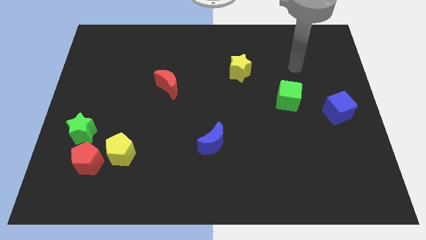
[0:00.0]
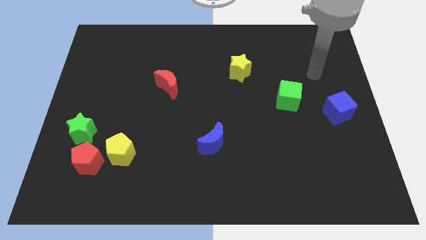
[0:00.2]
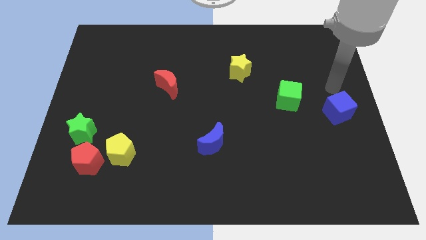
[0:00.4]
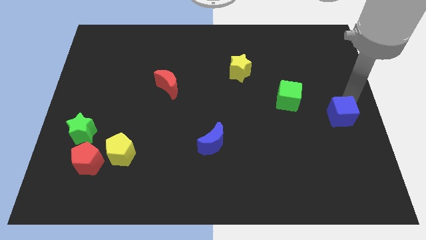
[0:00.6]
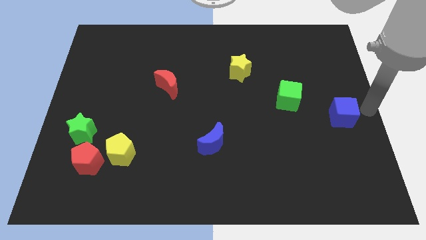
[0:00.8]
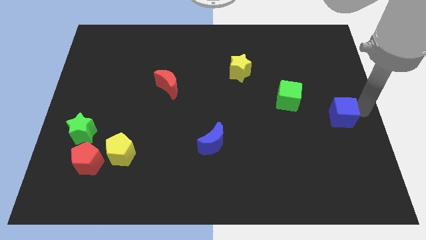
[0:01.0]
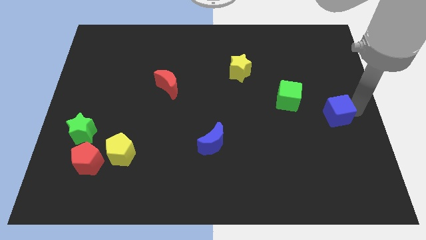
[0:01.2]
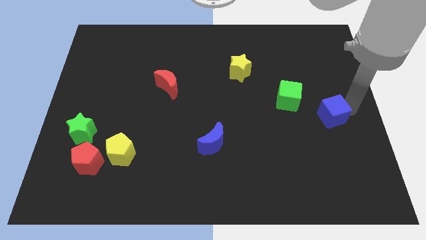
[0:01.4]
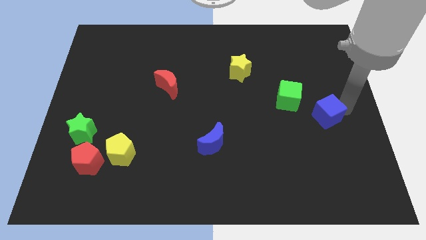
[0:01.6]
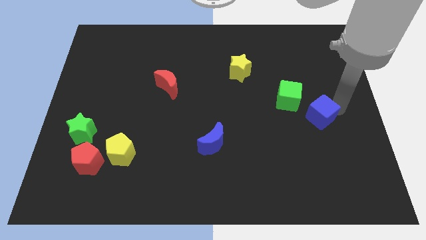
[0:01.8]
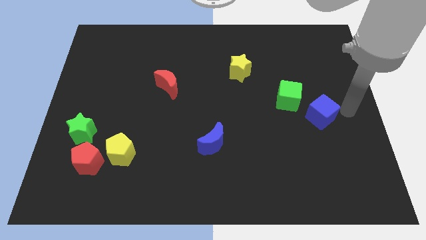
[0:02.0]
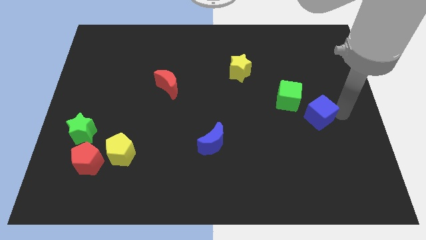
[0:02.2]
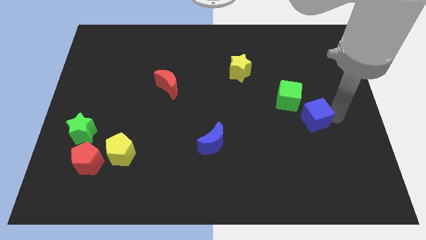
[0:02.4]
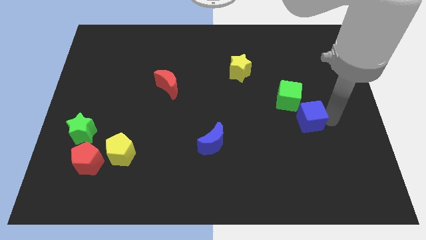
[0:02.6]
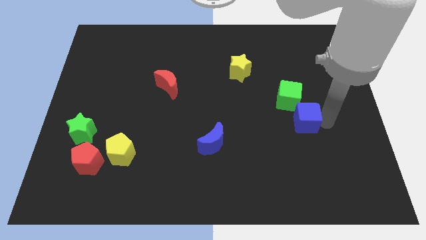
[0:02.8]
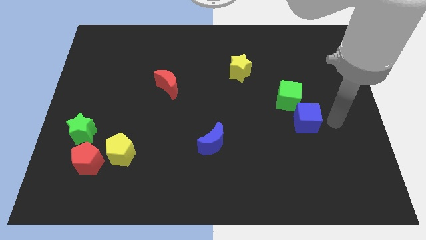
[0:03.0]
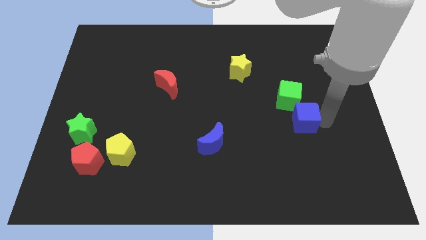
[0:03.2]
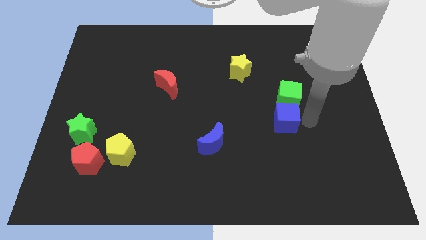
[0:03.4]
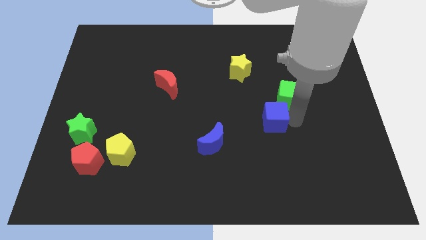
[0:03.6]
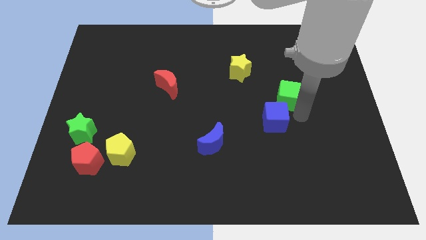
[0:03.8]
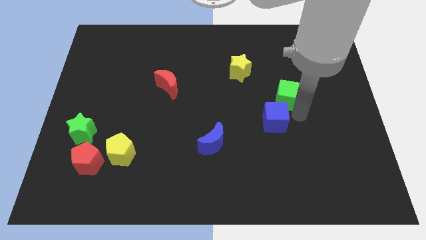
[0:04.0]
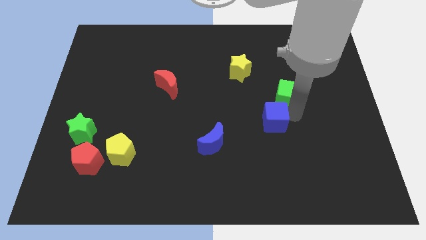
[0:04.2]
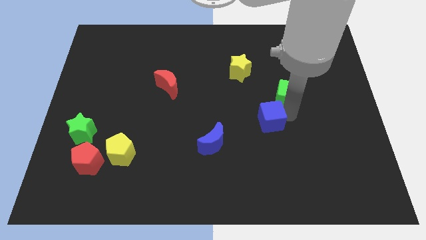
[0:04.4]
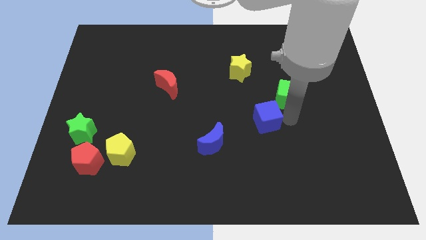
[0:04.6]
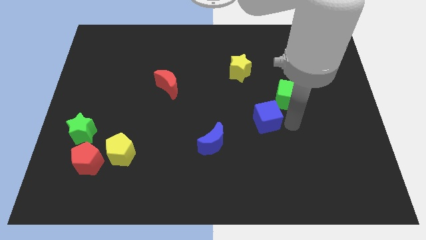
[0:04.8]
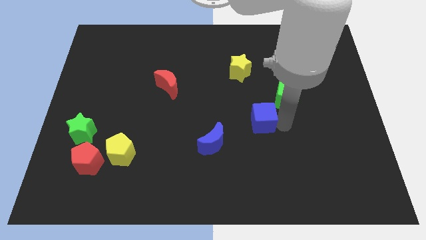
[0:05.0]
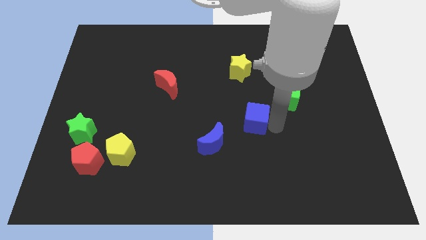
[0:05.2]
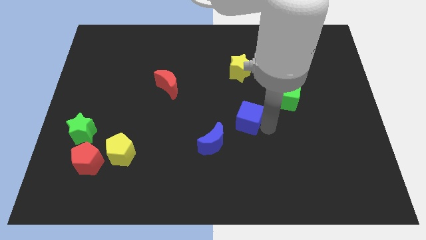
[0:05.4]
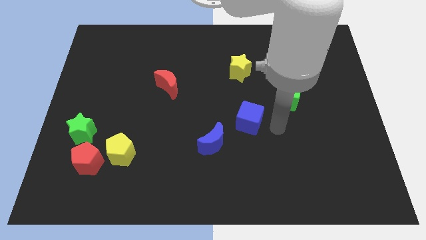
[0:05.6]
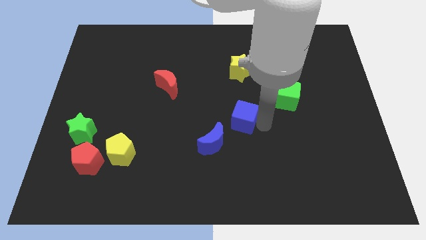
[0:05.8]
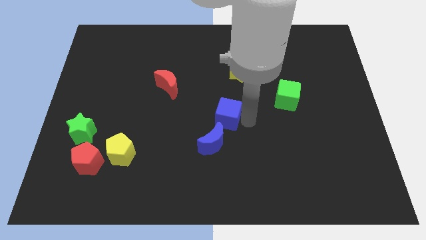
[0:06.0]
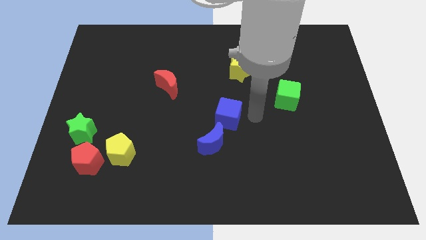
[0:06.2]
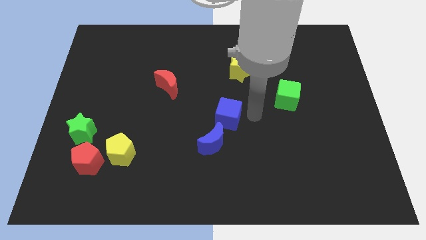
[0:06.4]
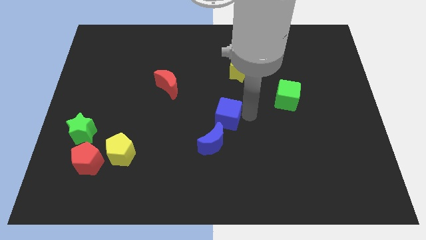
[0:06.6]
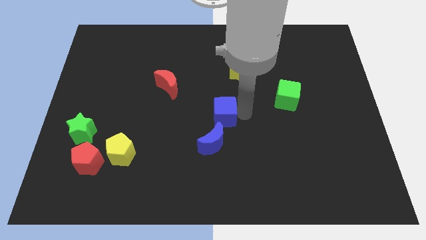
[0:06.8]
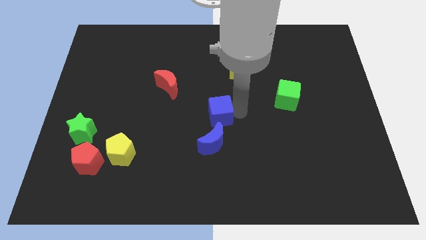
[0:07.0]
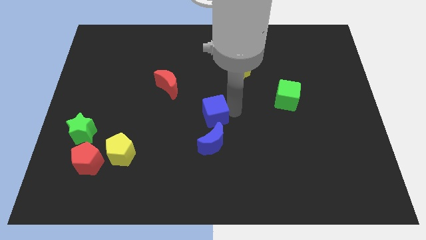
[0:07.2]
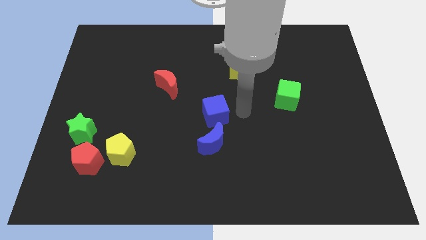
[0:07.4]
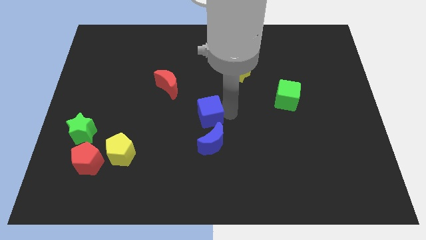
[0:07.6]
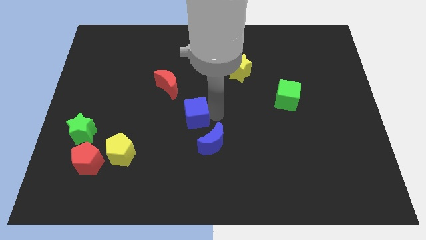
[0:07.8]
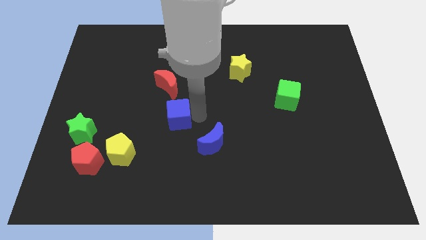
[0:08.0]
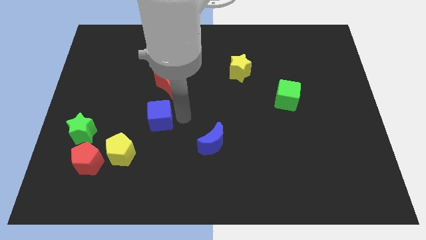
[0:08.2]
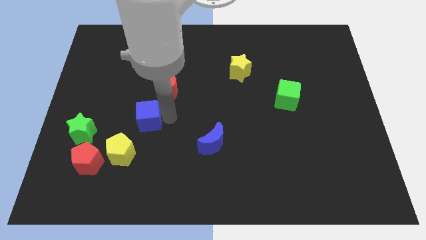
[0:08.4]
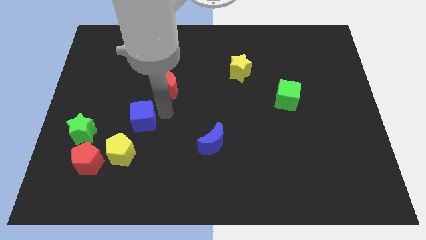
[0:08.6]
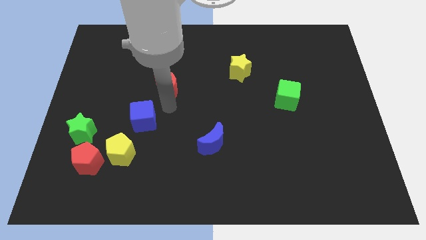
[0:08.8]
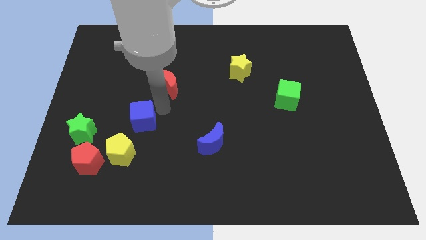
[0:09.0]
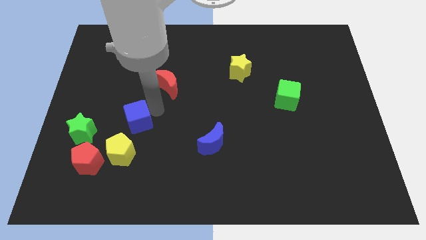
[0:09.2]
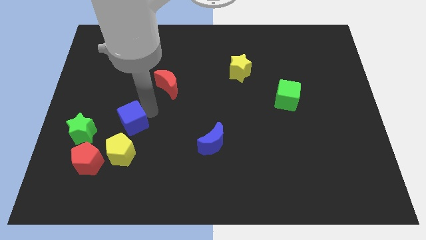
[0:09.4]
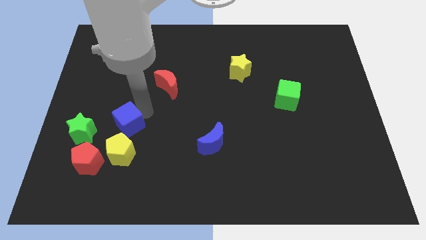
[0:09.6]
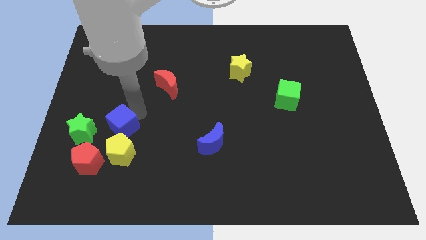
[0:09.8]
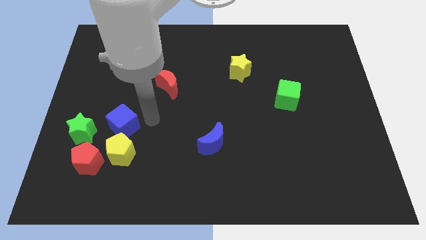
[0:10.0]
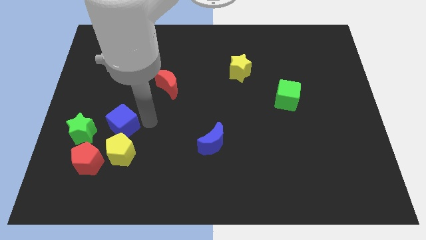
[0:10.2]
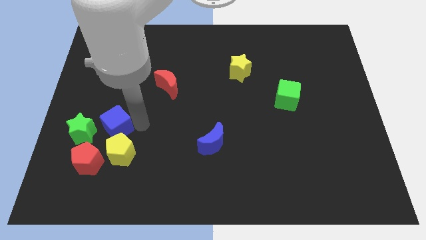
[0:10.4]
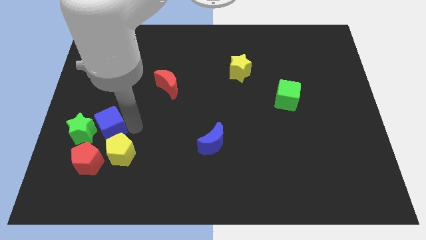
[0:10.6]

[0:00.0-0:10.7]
slide the blue cube close to the green star

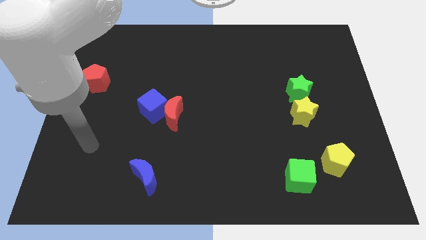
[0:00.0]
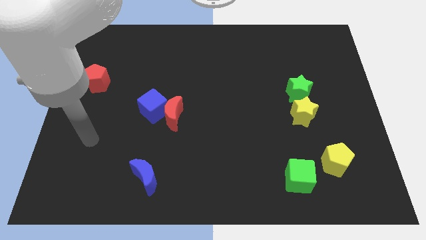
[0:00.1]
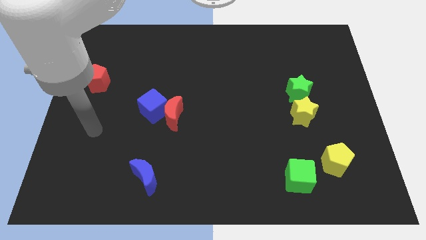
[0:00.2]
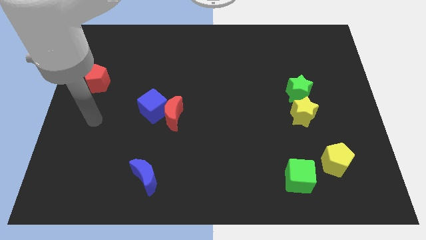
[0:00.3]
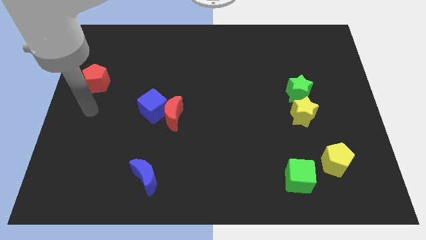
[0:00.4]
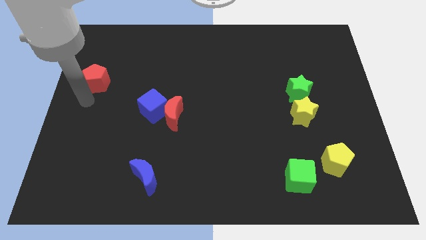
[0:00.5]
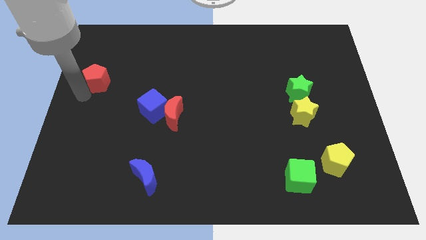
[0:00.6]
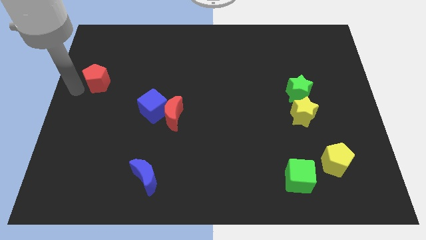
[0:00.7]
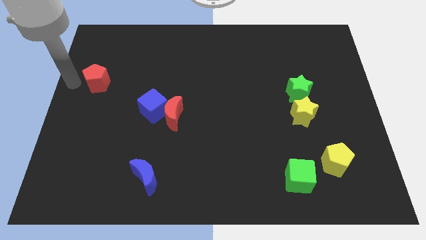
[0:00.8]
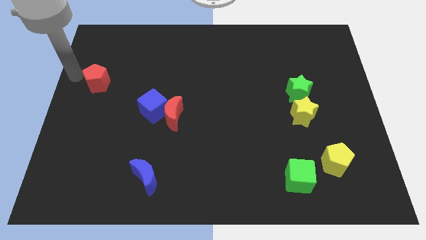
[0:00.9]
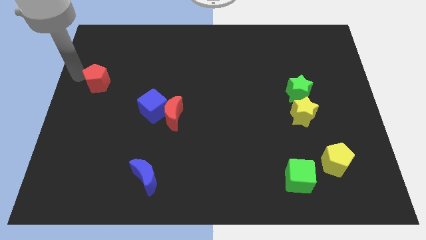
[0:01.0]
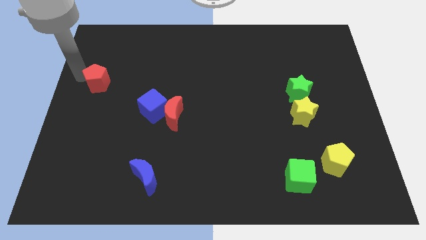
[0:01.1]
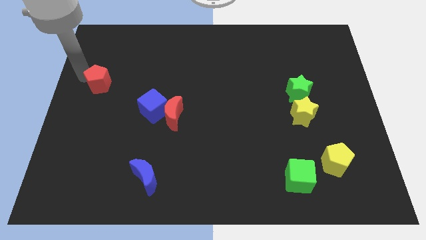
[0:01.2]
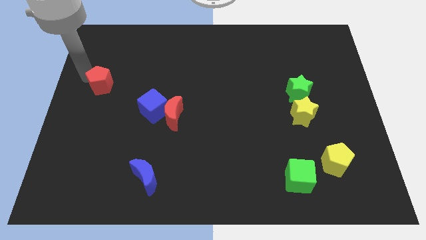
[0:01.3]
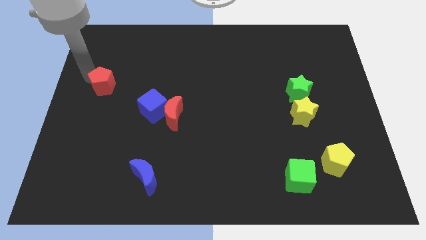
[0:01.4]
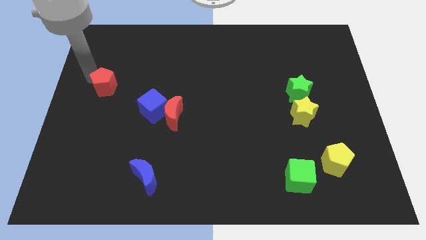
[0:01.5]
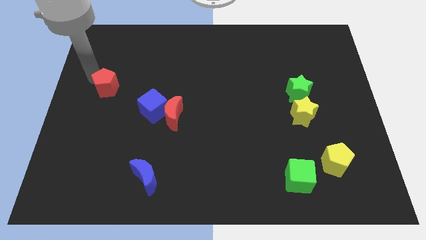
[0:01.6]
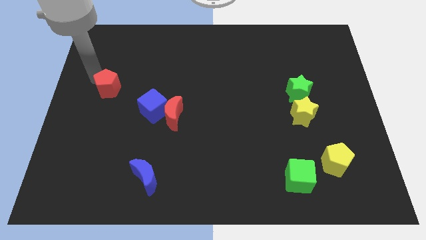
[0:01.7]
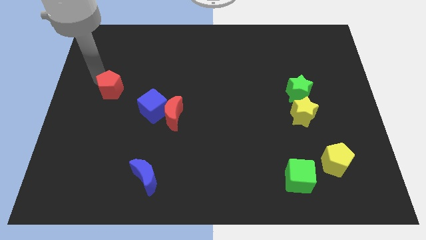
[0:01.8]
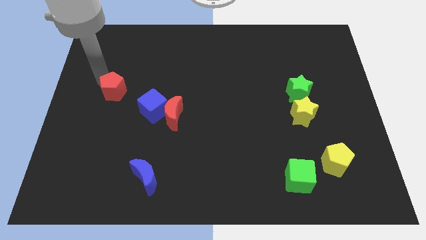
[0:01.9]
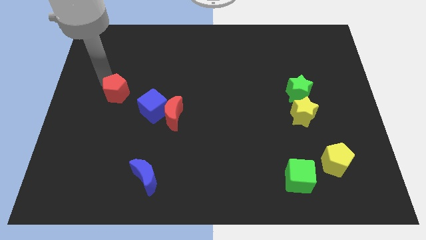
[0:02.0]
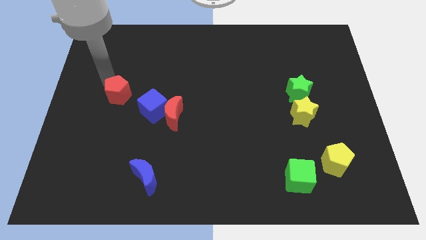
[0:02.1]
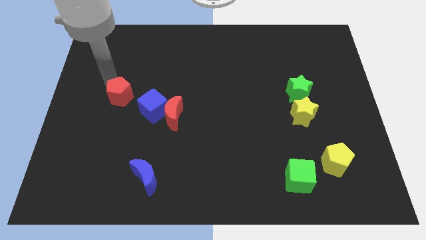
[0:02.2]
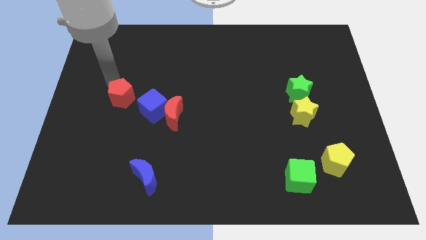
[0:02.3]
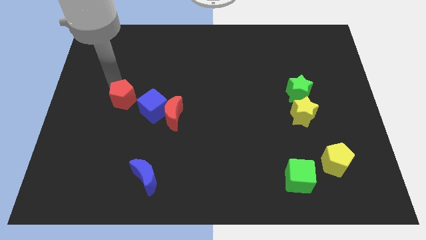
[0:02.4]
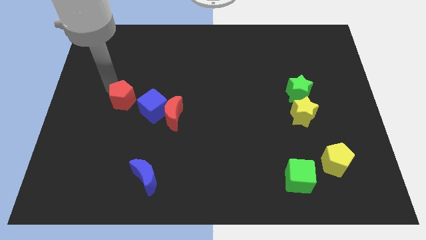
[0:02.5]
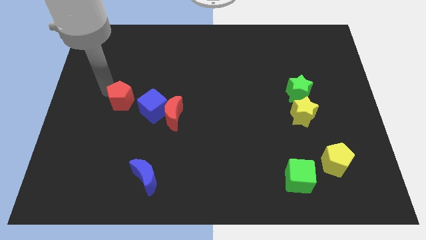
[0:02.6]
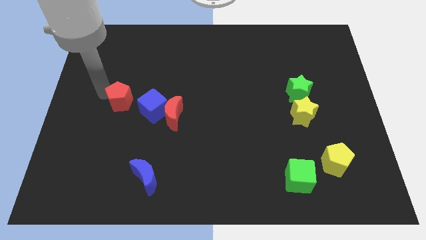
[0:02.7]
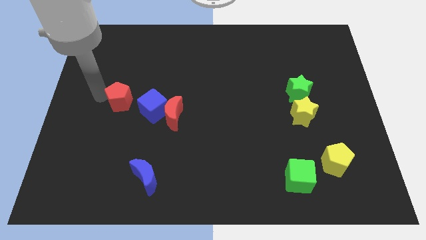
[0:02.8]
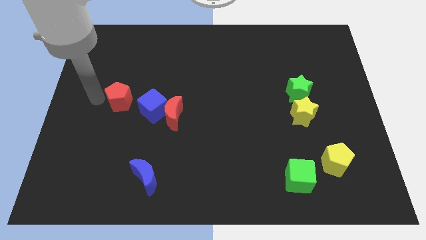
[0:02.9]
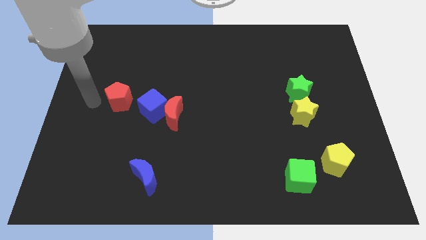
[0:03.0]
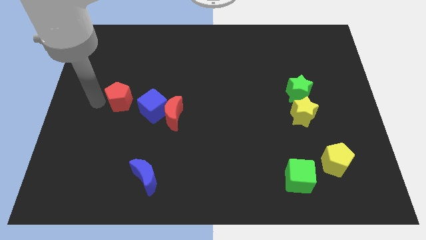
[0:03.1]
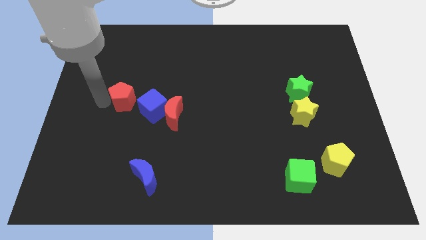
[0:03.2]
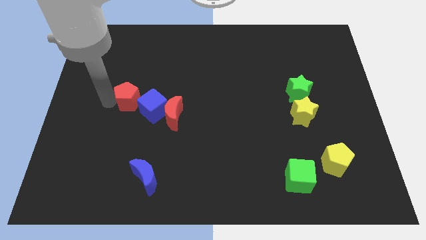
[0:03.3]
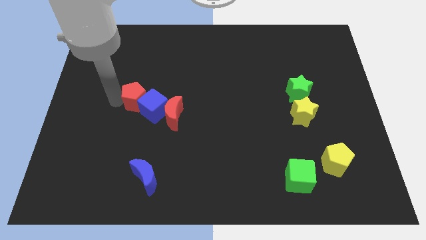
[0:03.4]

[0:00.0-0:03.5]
put the red pentagon close to the blue cube
